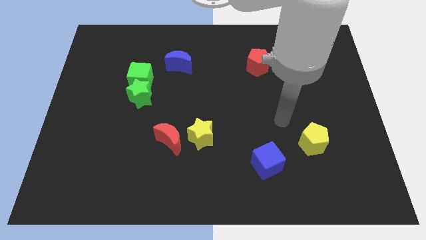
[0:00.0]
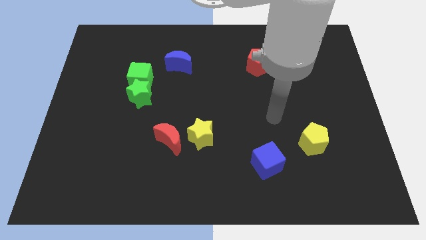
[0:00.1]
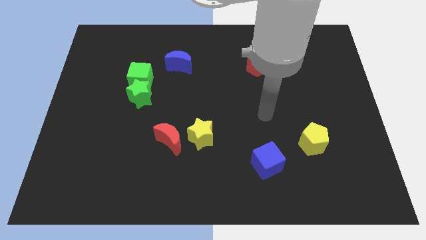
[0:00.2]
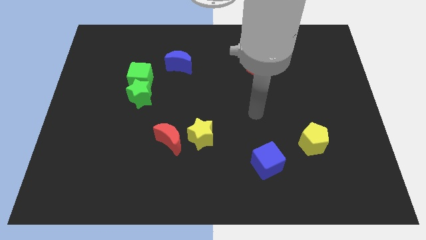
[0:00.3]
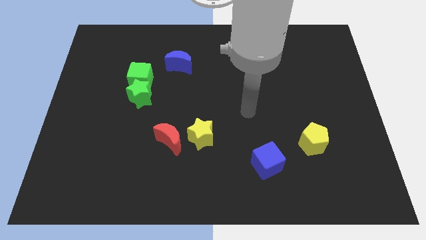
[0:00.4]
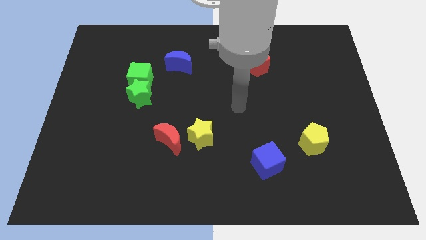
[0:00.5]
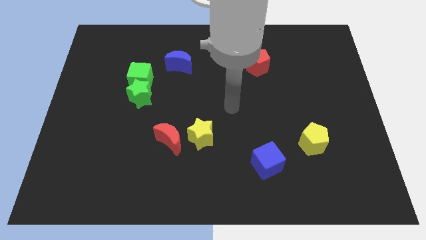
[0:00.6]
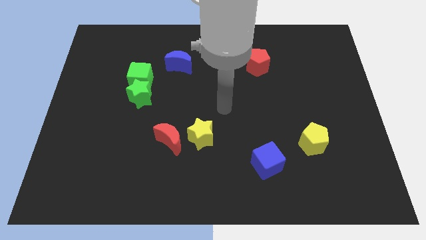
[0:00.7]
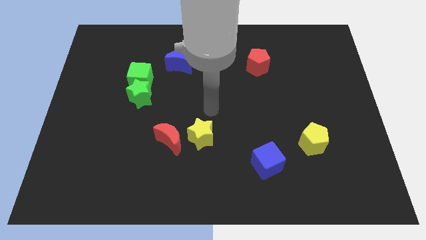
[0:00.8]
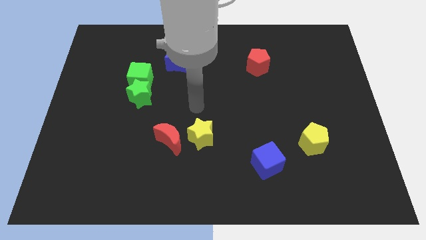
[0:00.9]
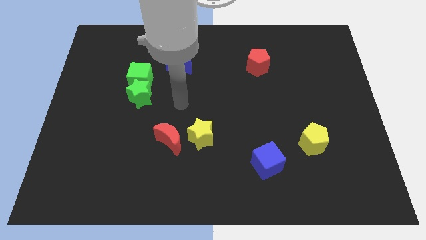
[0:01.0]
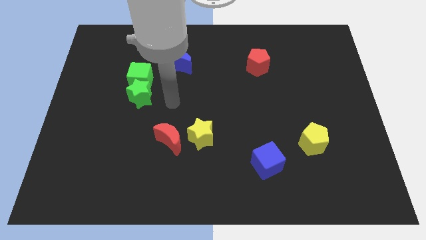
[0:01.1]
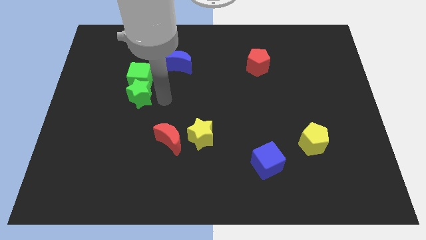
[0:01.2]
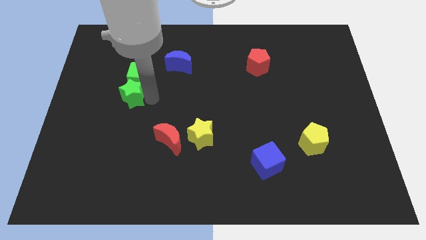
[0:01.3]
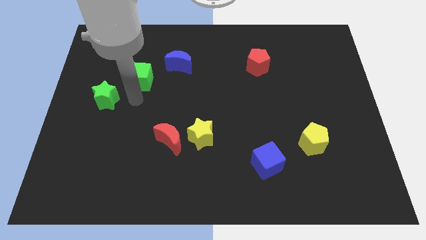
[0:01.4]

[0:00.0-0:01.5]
pull the green cube apart from the green star

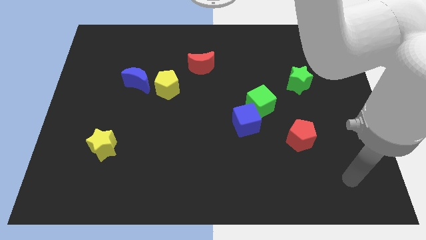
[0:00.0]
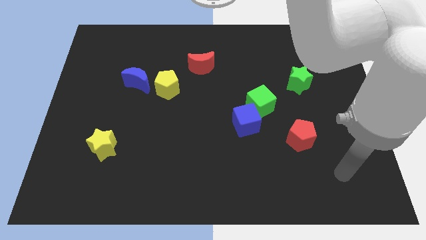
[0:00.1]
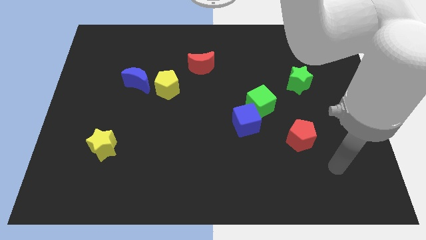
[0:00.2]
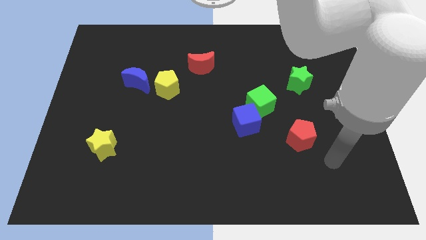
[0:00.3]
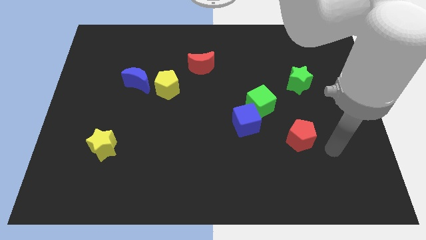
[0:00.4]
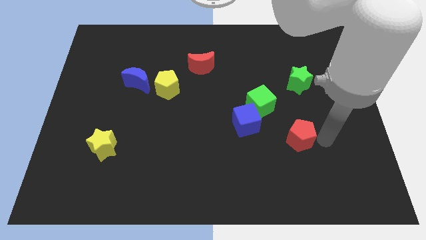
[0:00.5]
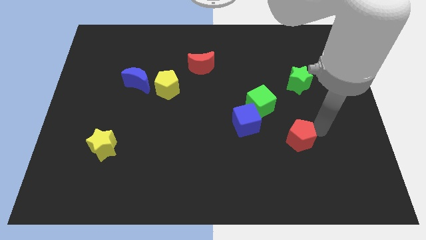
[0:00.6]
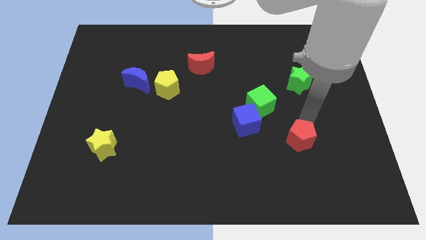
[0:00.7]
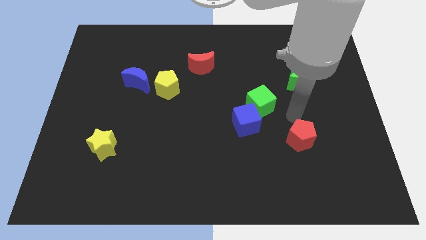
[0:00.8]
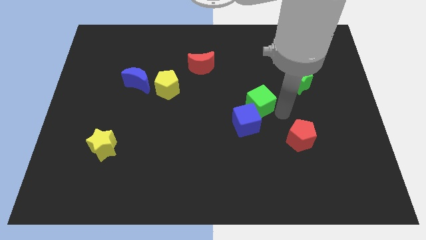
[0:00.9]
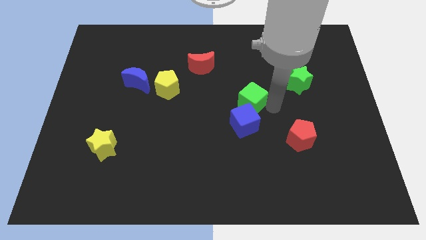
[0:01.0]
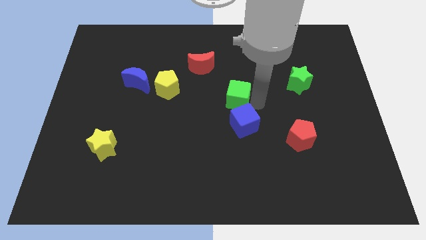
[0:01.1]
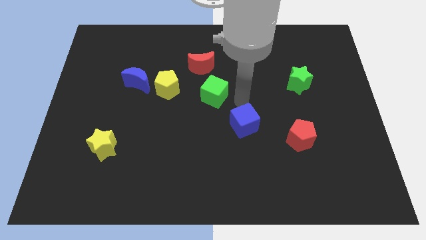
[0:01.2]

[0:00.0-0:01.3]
separate the blue cube from the green cube

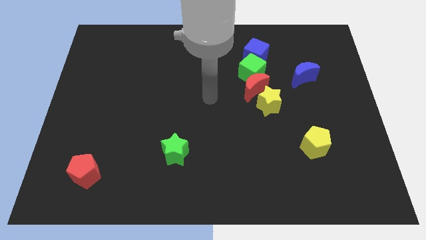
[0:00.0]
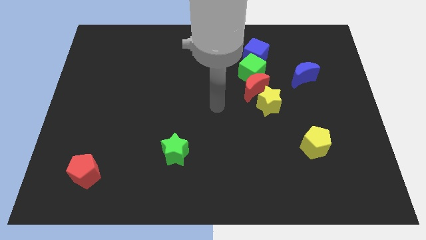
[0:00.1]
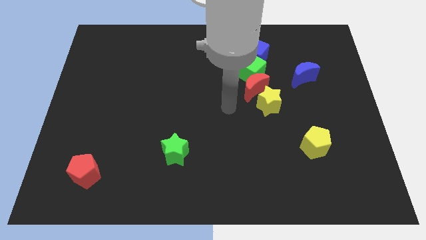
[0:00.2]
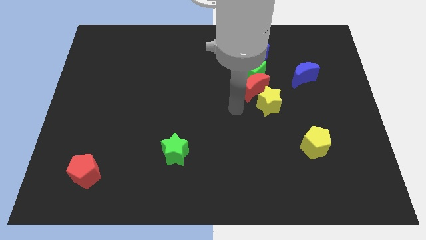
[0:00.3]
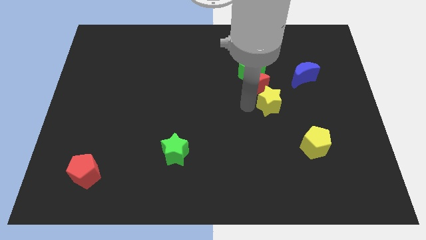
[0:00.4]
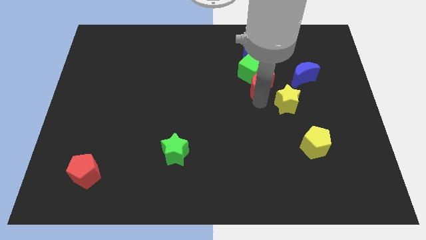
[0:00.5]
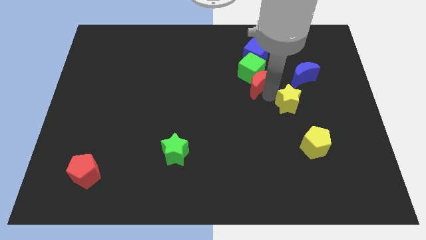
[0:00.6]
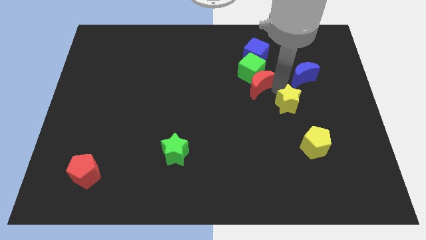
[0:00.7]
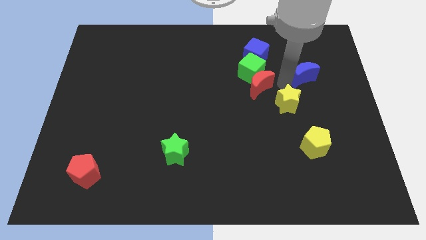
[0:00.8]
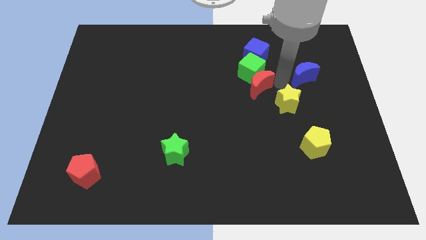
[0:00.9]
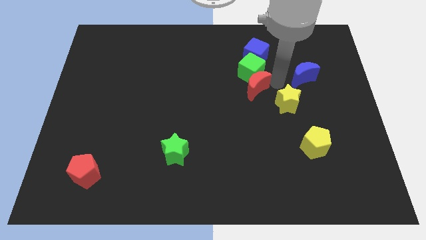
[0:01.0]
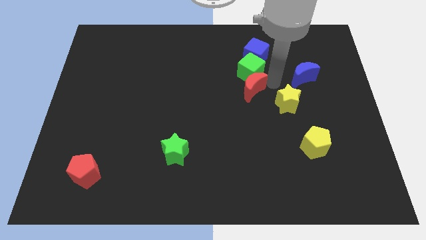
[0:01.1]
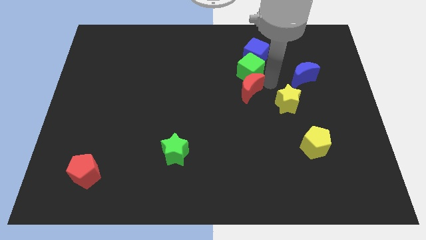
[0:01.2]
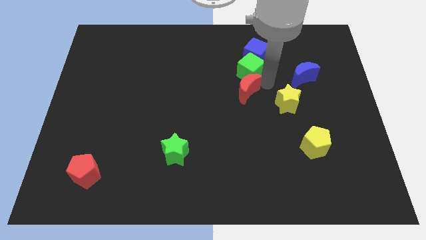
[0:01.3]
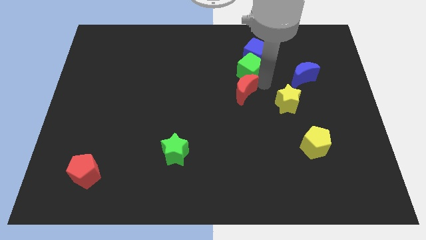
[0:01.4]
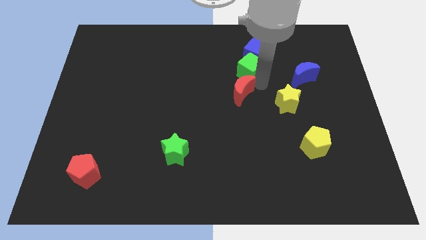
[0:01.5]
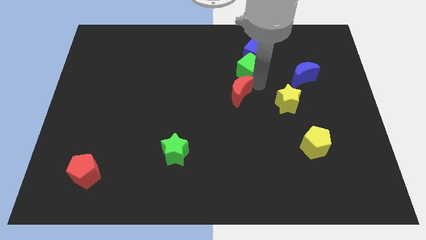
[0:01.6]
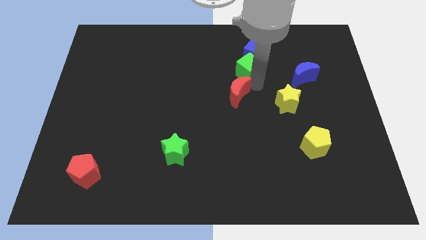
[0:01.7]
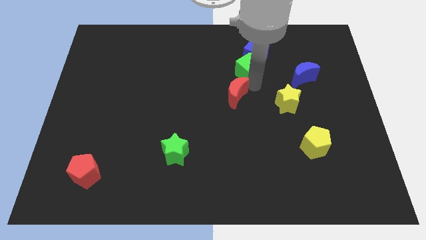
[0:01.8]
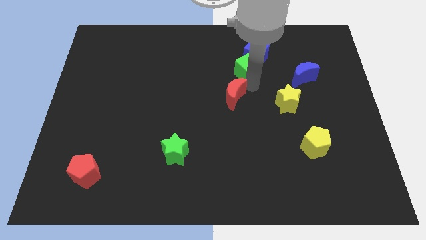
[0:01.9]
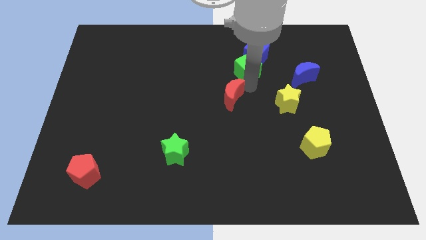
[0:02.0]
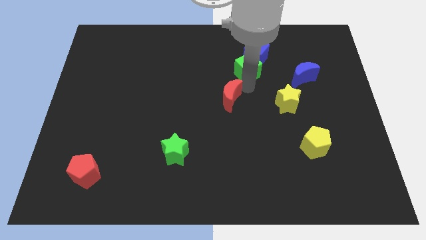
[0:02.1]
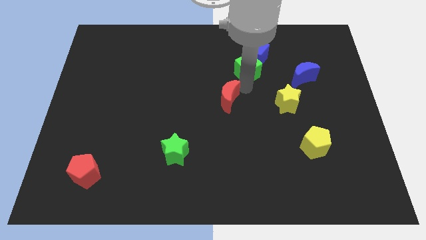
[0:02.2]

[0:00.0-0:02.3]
move the red moon away from the green cube and yellow star

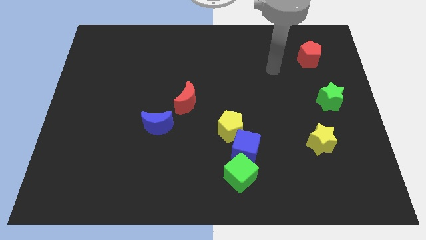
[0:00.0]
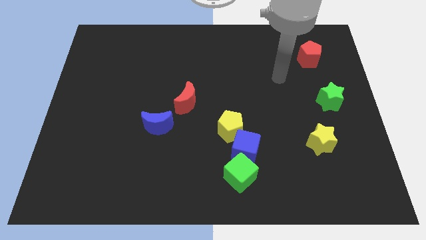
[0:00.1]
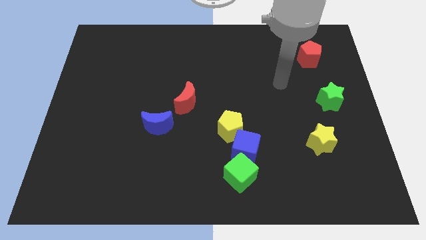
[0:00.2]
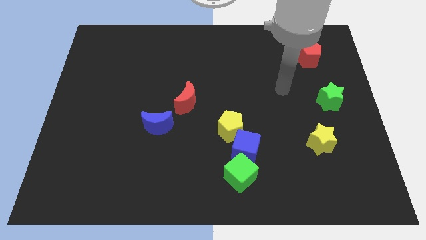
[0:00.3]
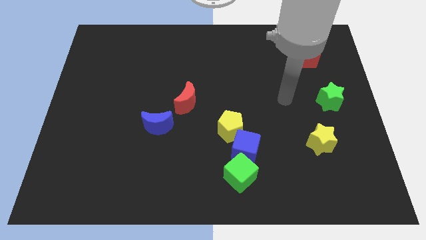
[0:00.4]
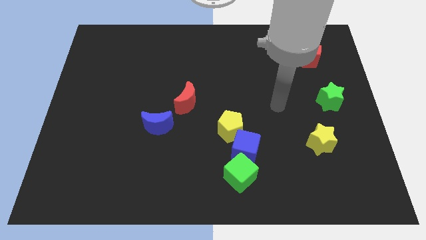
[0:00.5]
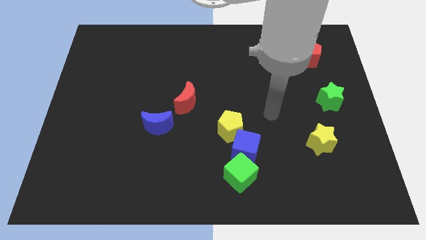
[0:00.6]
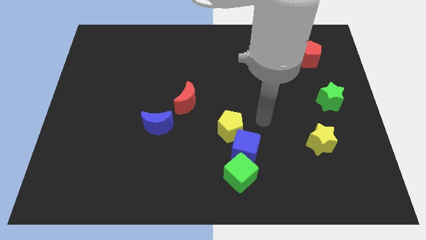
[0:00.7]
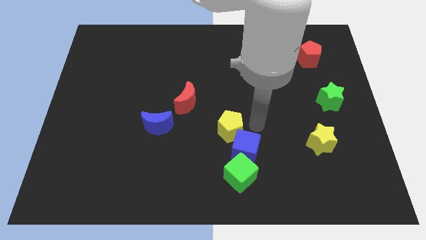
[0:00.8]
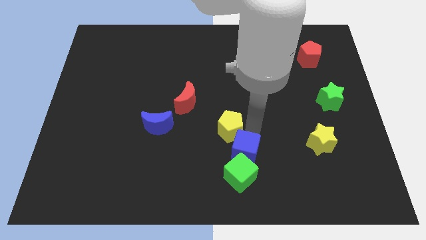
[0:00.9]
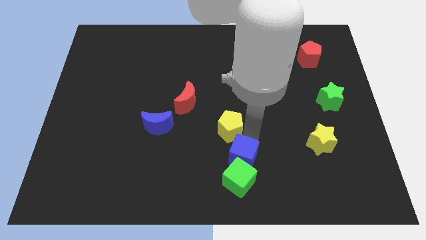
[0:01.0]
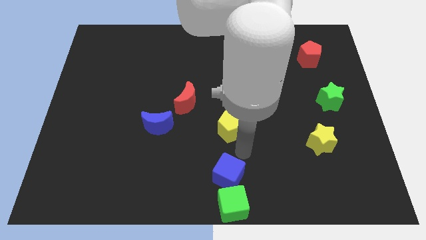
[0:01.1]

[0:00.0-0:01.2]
move the yellow pentagon away from the blue cube

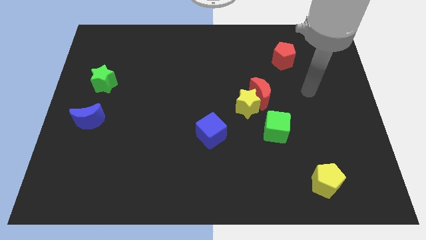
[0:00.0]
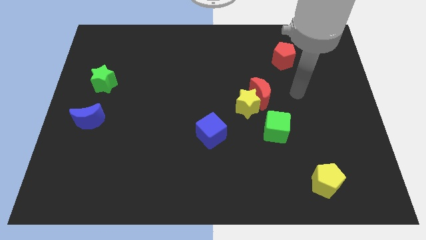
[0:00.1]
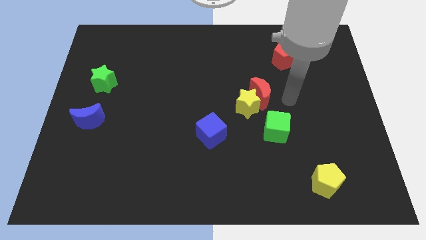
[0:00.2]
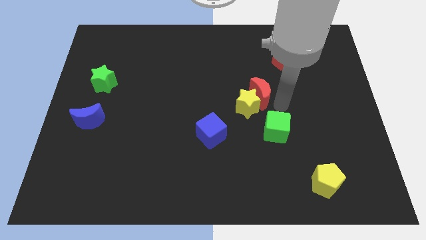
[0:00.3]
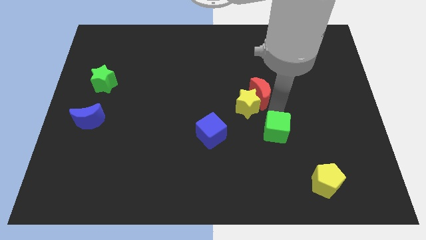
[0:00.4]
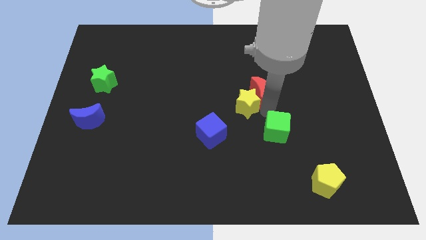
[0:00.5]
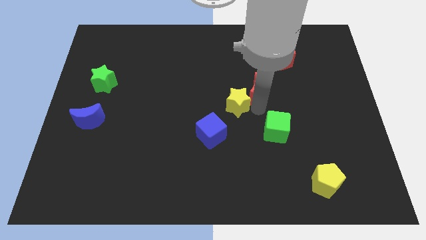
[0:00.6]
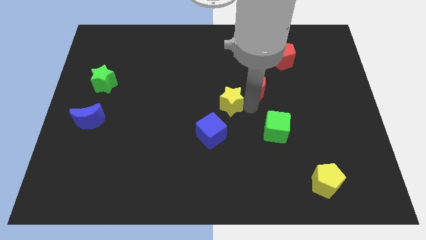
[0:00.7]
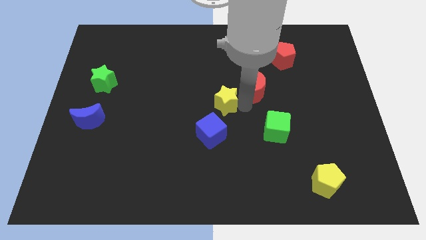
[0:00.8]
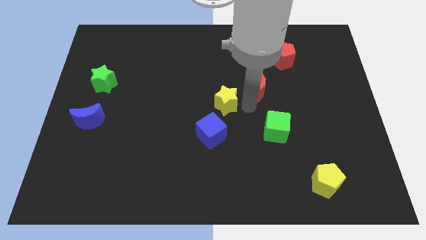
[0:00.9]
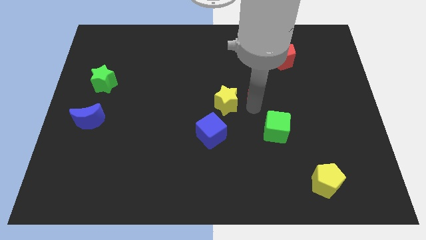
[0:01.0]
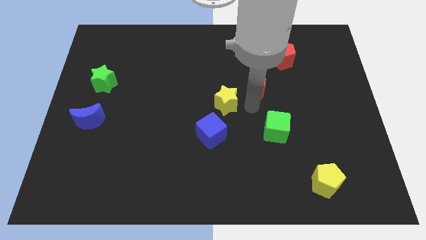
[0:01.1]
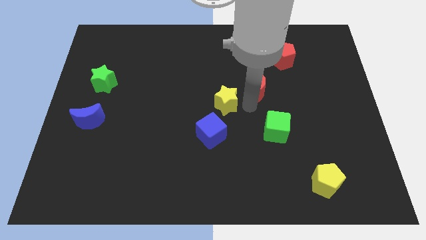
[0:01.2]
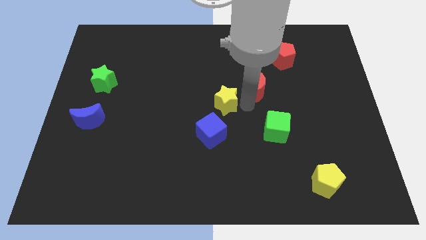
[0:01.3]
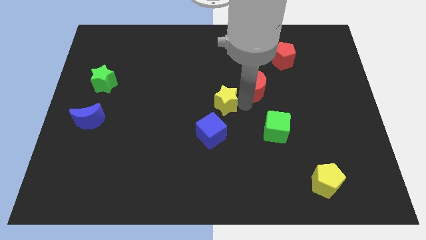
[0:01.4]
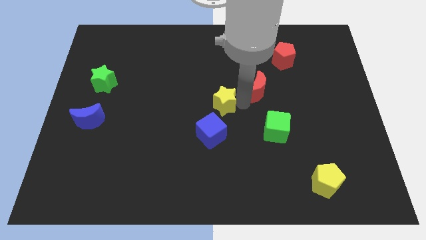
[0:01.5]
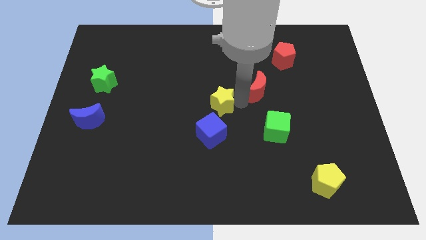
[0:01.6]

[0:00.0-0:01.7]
pull the yellow star apart from the red moon and green cube

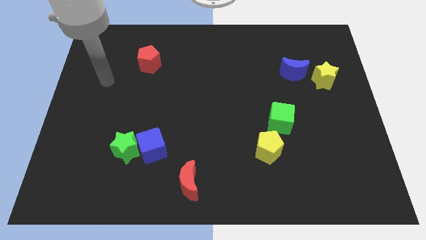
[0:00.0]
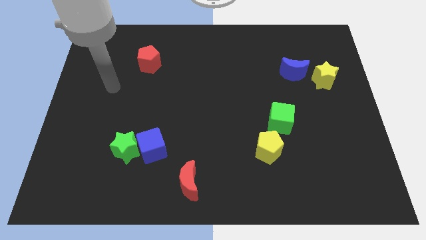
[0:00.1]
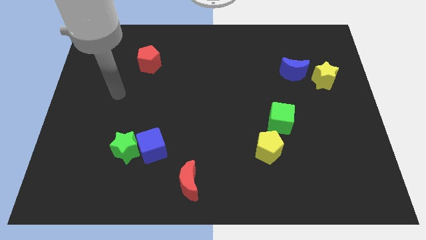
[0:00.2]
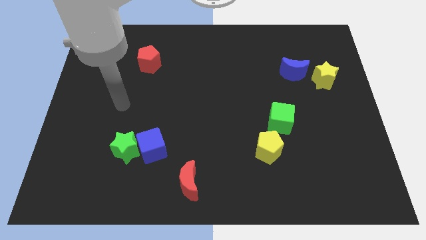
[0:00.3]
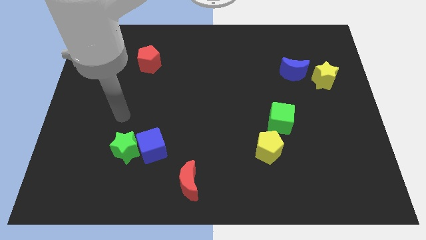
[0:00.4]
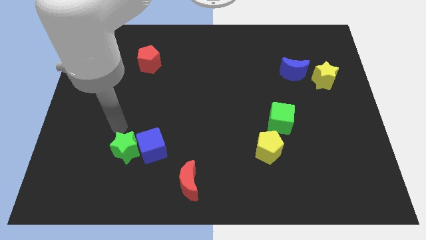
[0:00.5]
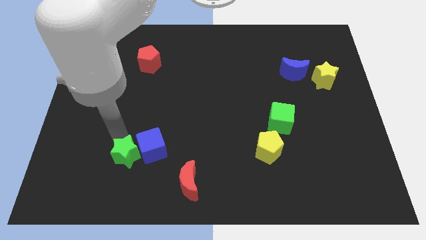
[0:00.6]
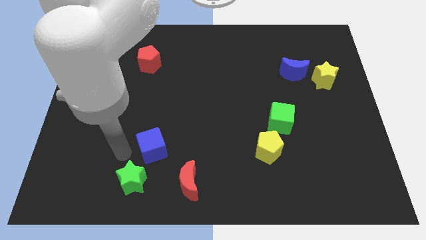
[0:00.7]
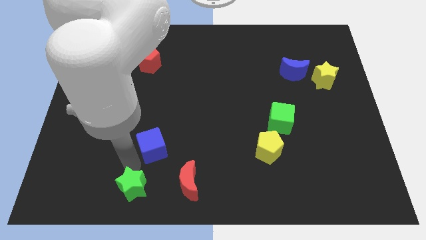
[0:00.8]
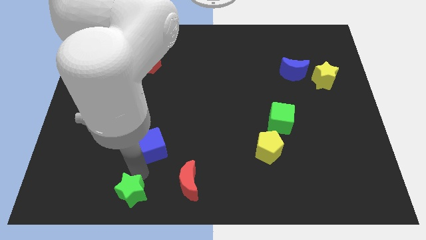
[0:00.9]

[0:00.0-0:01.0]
separate the blue cube from the green star
